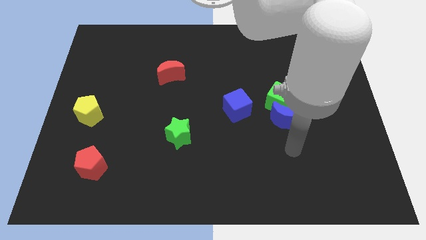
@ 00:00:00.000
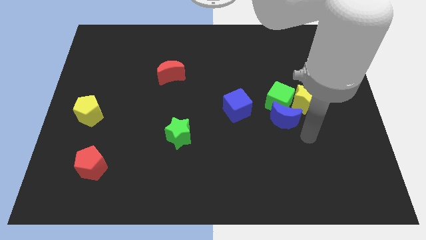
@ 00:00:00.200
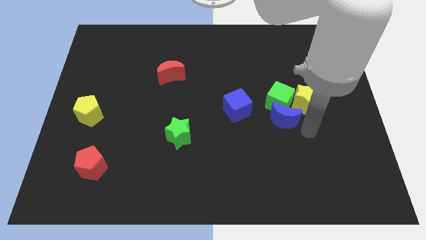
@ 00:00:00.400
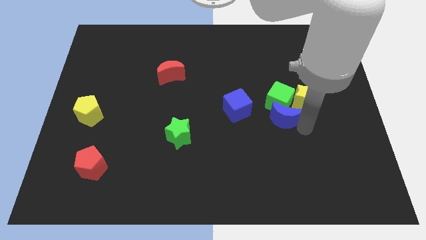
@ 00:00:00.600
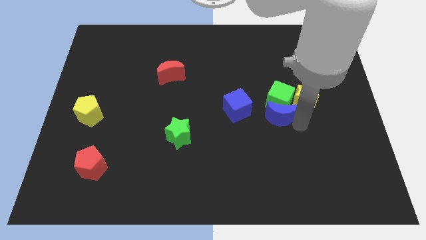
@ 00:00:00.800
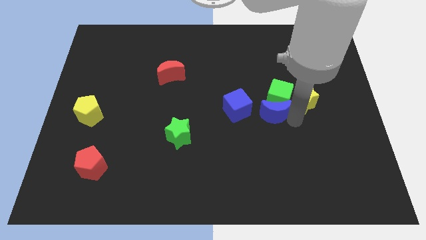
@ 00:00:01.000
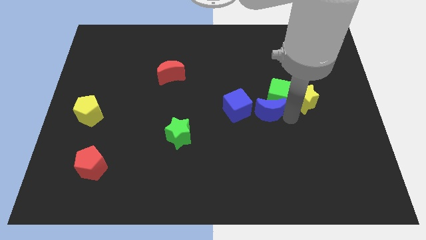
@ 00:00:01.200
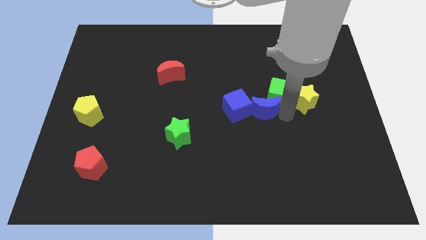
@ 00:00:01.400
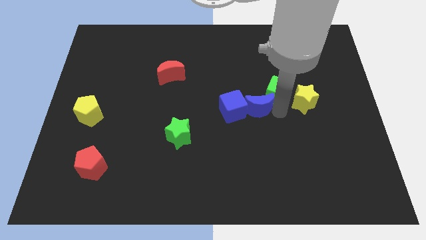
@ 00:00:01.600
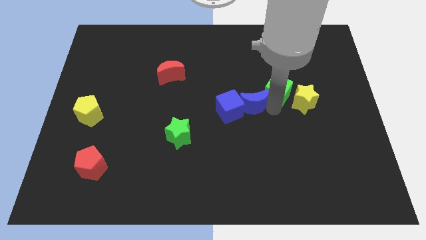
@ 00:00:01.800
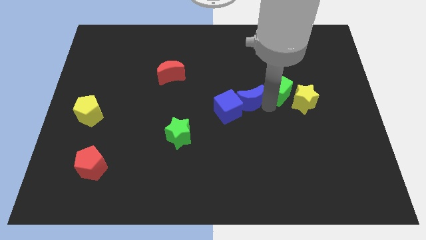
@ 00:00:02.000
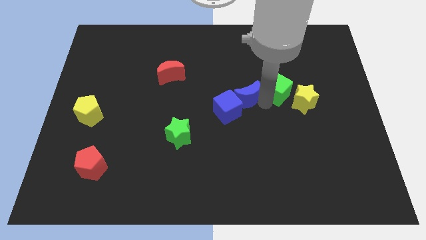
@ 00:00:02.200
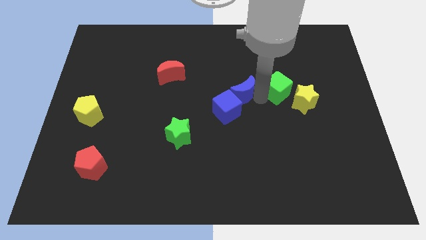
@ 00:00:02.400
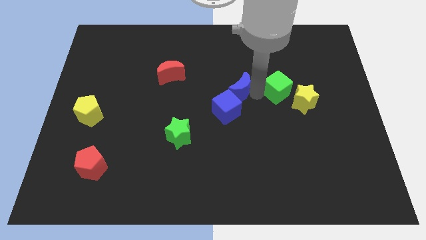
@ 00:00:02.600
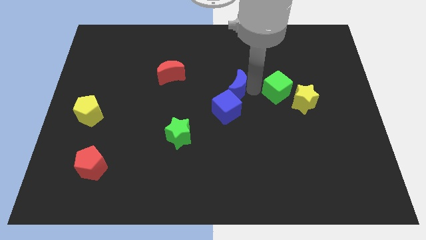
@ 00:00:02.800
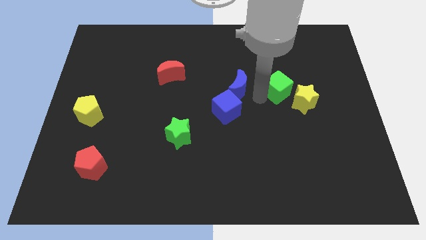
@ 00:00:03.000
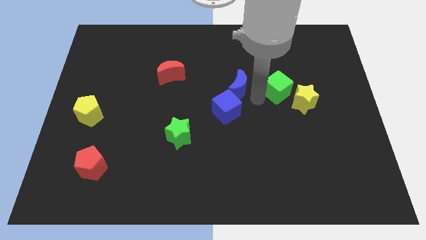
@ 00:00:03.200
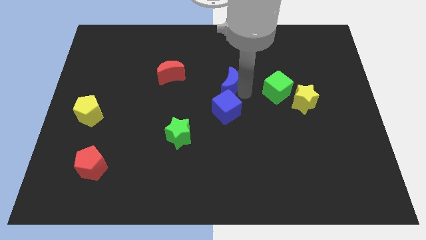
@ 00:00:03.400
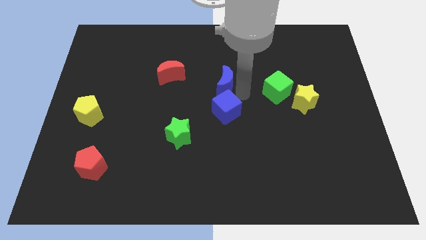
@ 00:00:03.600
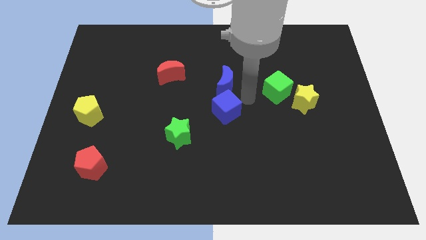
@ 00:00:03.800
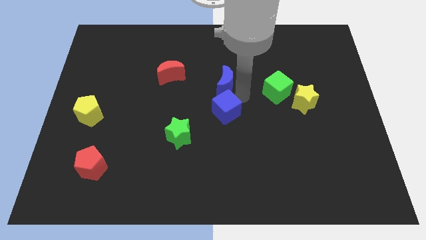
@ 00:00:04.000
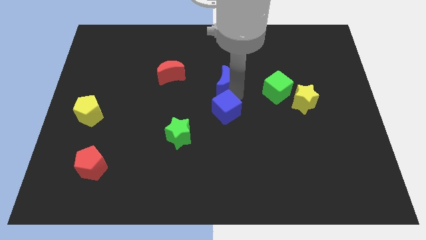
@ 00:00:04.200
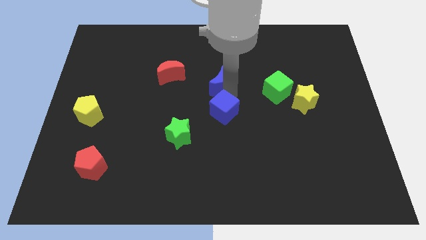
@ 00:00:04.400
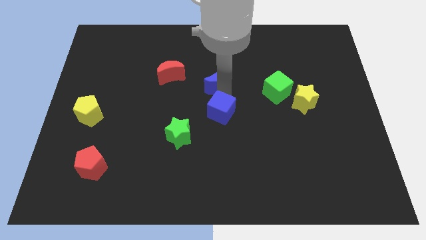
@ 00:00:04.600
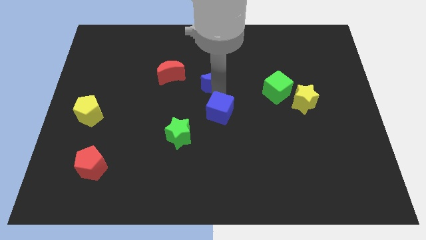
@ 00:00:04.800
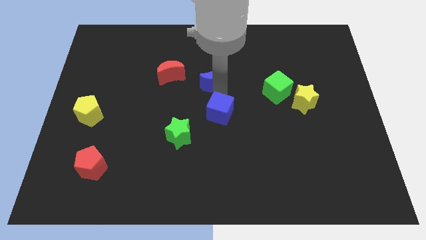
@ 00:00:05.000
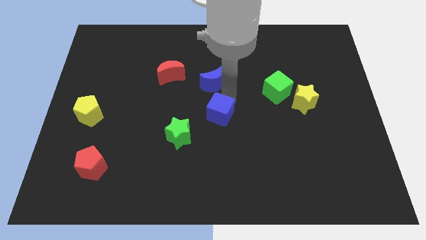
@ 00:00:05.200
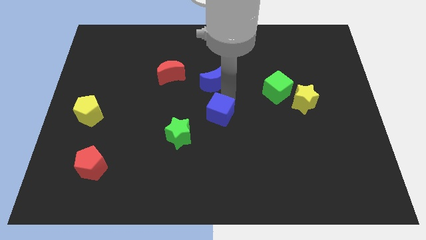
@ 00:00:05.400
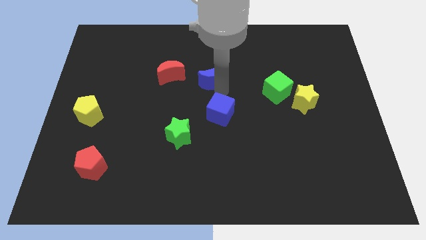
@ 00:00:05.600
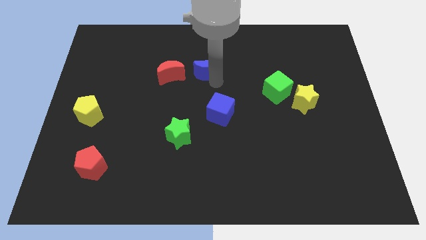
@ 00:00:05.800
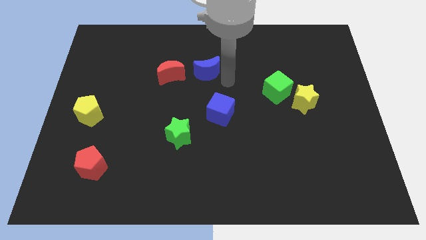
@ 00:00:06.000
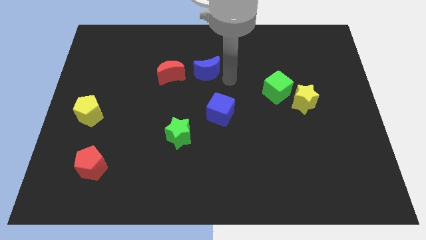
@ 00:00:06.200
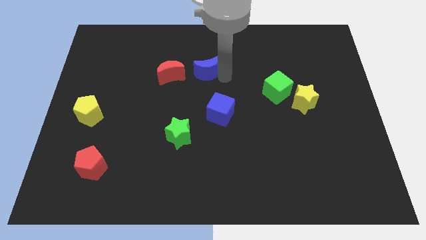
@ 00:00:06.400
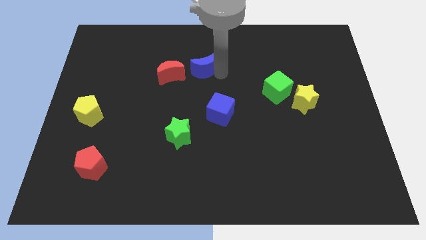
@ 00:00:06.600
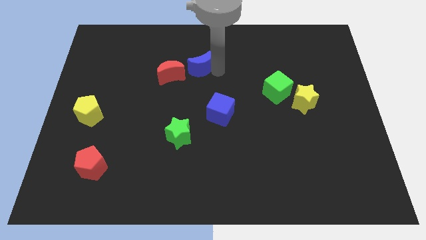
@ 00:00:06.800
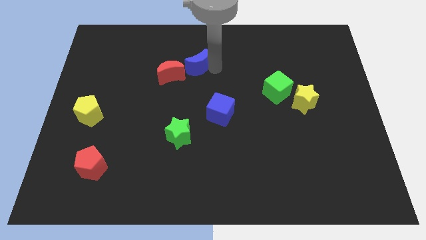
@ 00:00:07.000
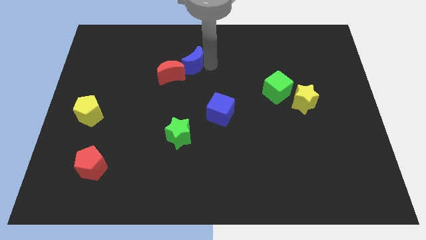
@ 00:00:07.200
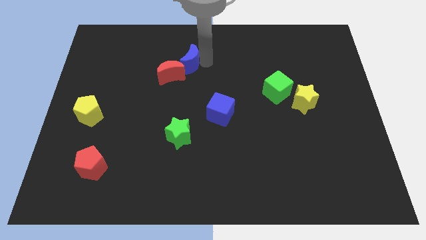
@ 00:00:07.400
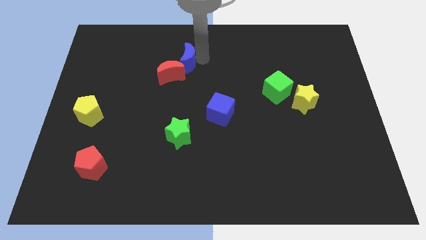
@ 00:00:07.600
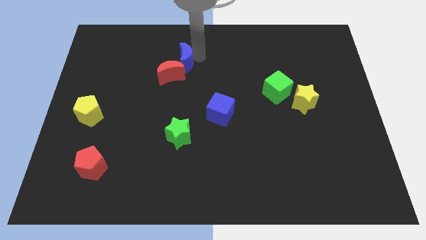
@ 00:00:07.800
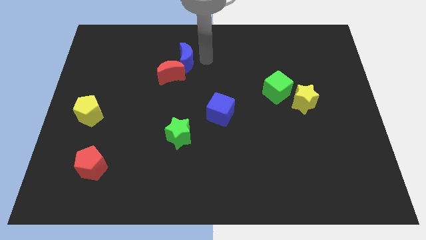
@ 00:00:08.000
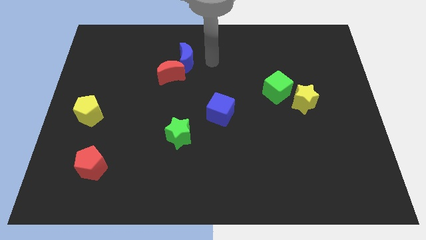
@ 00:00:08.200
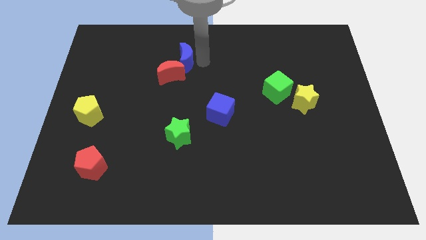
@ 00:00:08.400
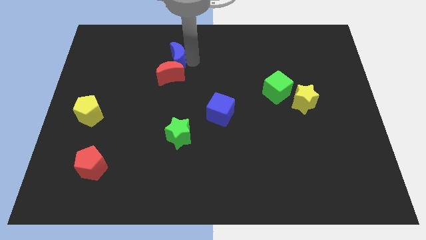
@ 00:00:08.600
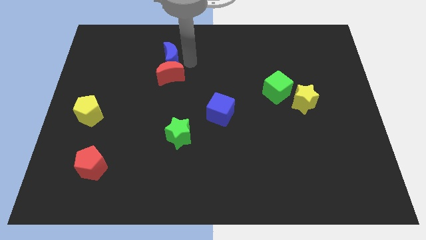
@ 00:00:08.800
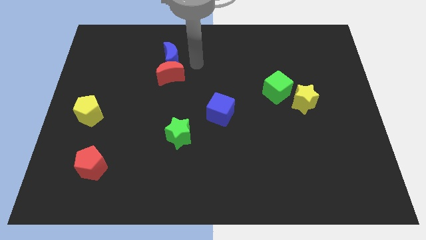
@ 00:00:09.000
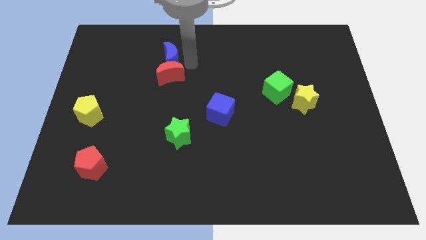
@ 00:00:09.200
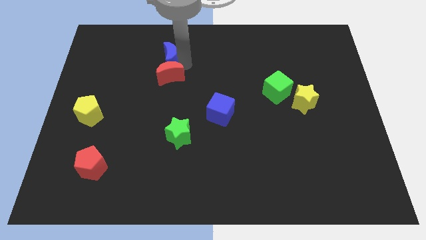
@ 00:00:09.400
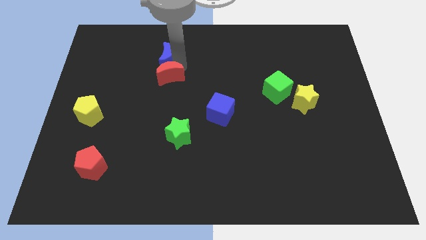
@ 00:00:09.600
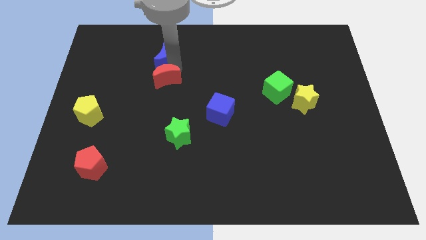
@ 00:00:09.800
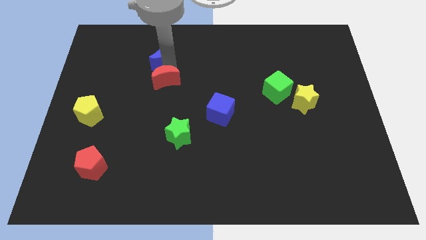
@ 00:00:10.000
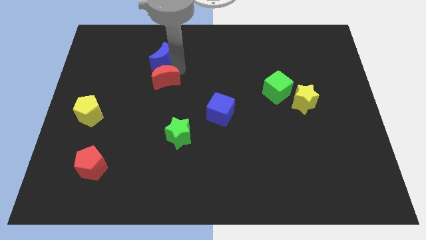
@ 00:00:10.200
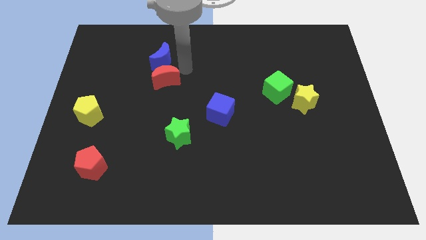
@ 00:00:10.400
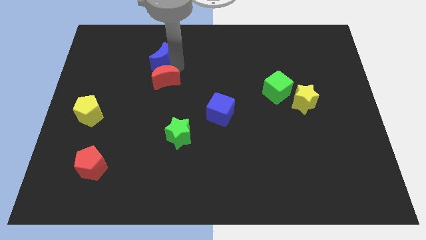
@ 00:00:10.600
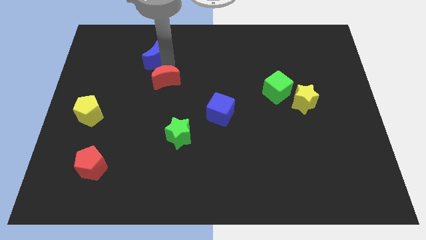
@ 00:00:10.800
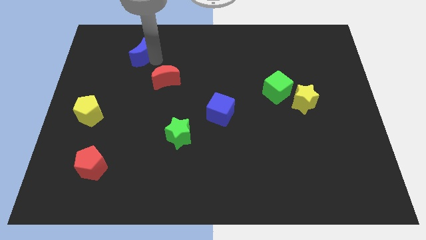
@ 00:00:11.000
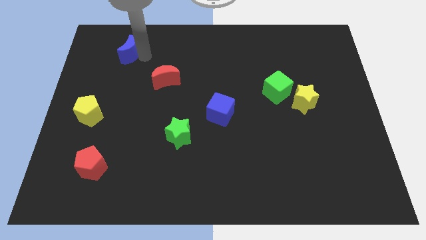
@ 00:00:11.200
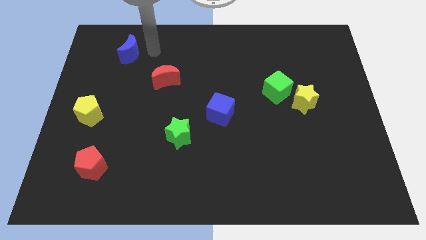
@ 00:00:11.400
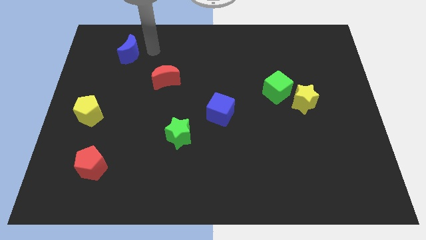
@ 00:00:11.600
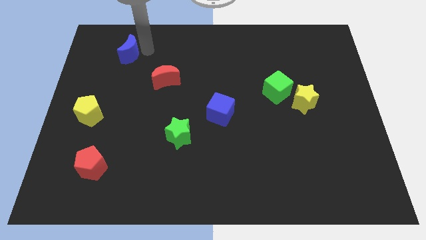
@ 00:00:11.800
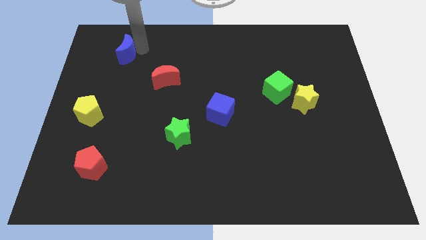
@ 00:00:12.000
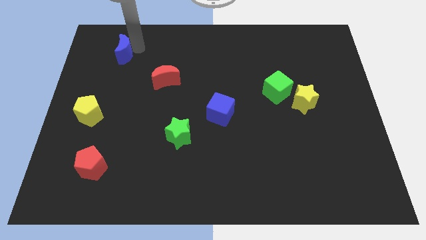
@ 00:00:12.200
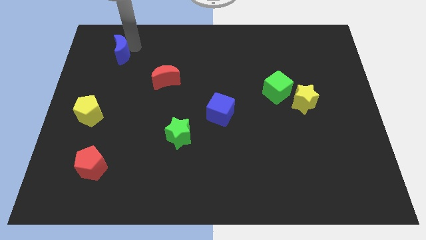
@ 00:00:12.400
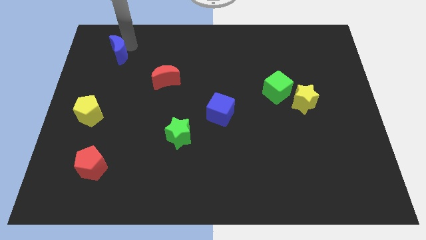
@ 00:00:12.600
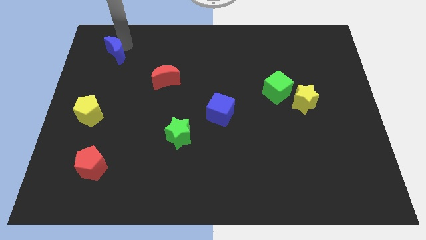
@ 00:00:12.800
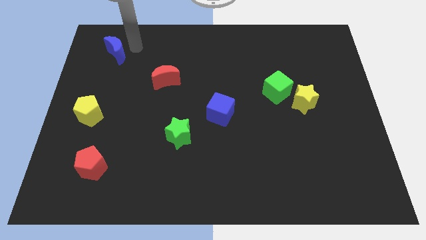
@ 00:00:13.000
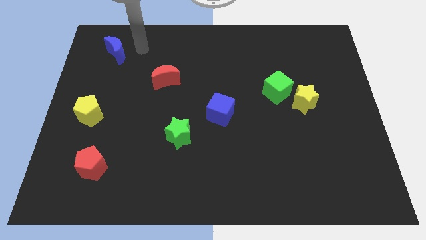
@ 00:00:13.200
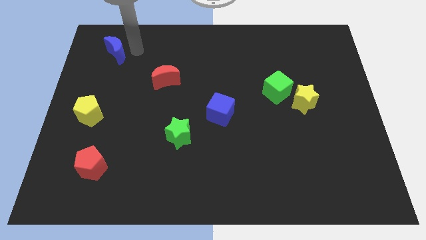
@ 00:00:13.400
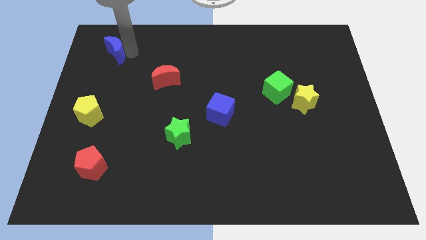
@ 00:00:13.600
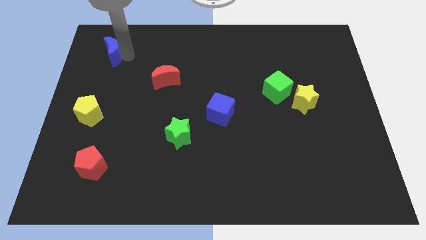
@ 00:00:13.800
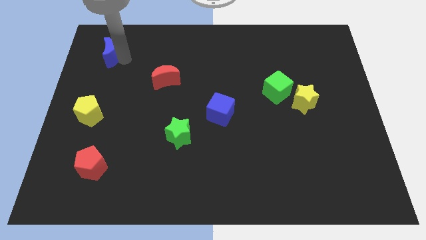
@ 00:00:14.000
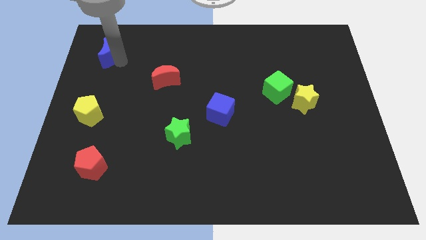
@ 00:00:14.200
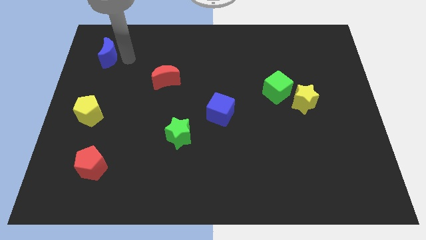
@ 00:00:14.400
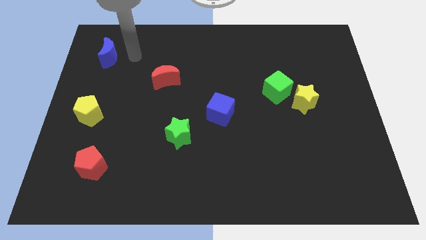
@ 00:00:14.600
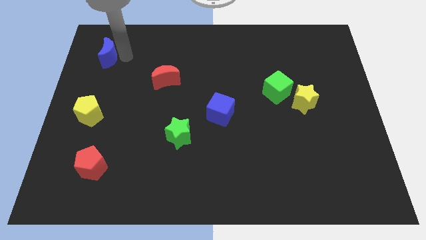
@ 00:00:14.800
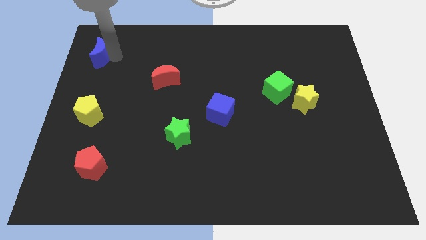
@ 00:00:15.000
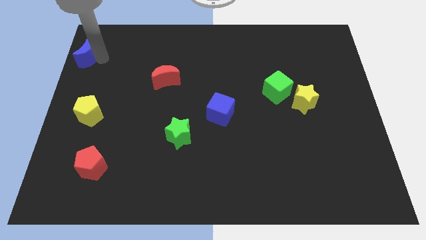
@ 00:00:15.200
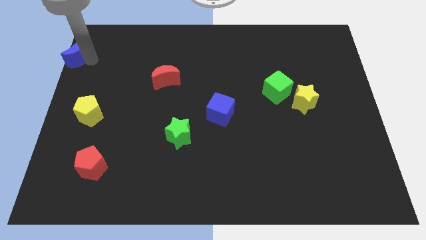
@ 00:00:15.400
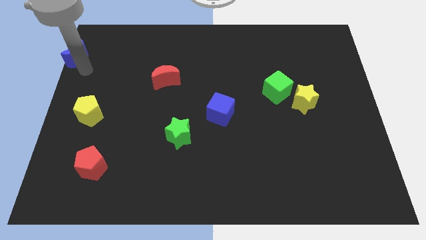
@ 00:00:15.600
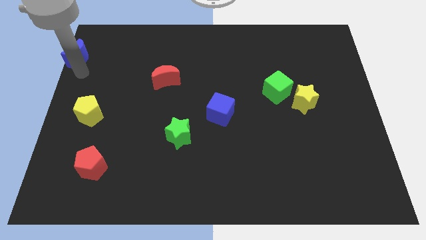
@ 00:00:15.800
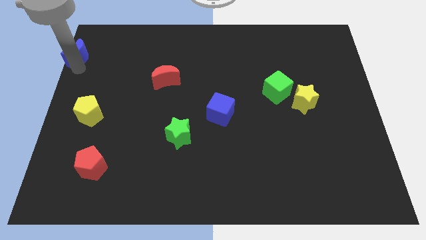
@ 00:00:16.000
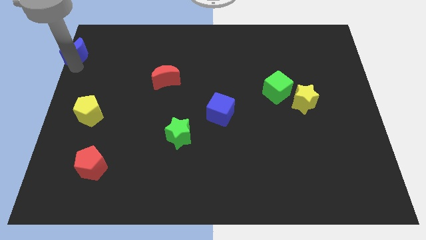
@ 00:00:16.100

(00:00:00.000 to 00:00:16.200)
move the blue moon to the top left corner
